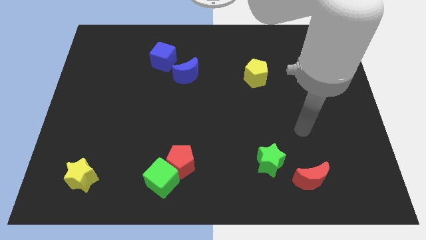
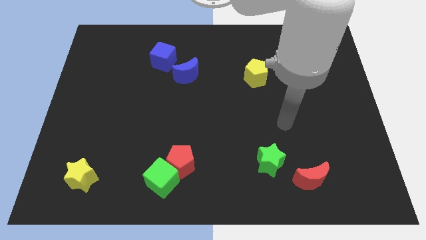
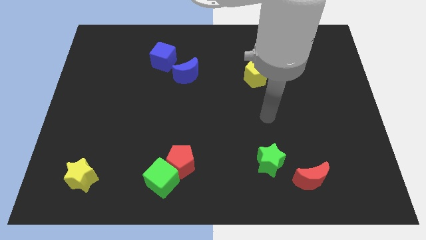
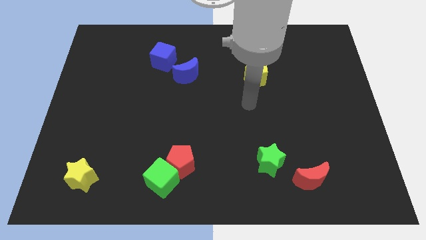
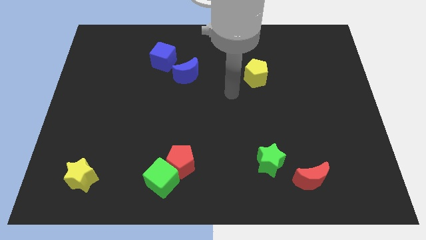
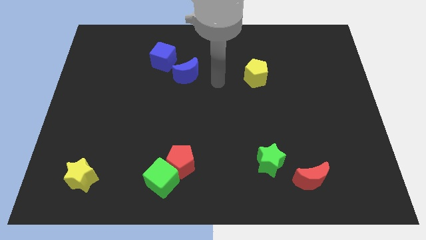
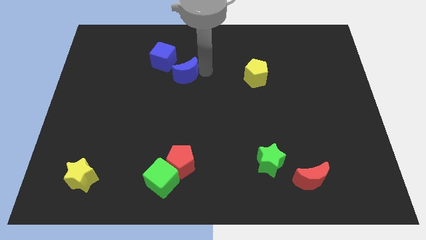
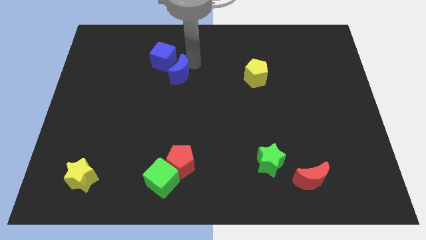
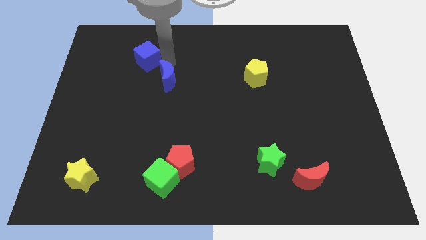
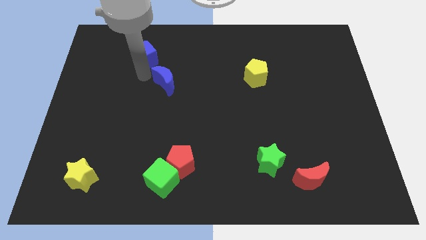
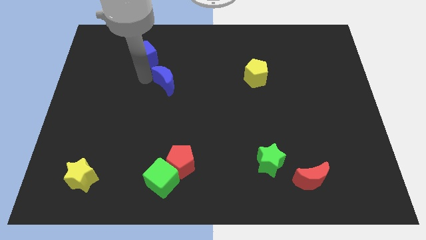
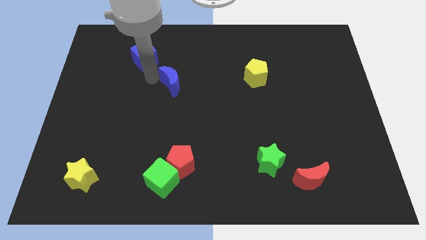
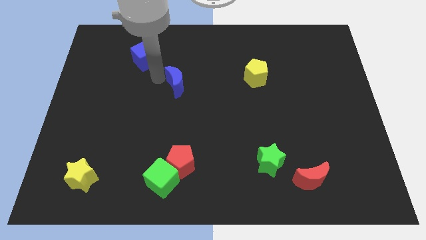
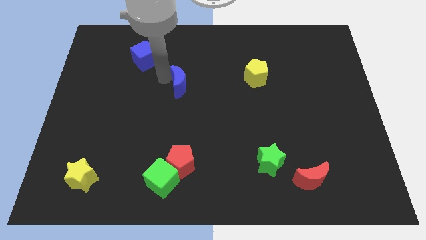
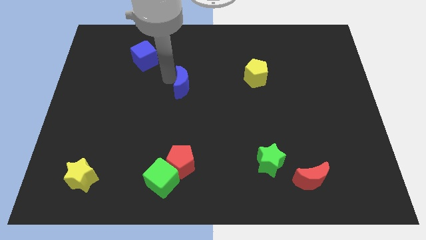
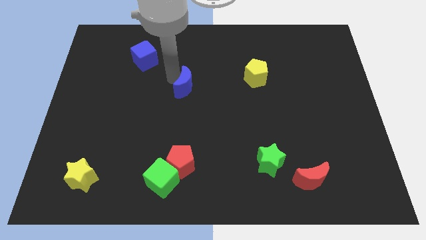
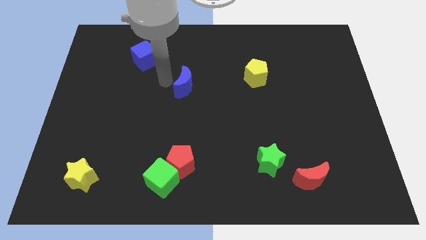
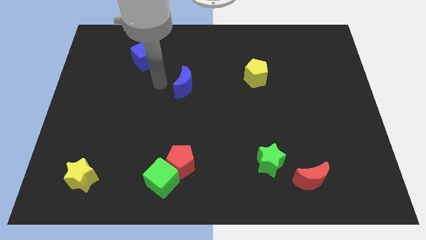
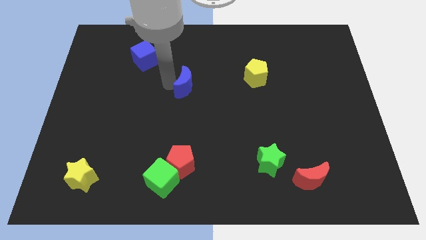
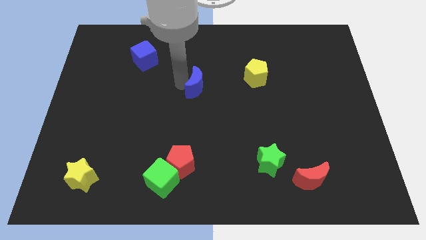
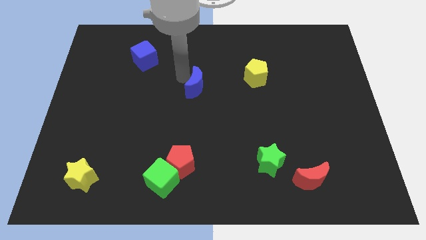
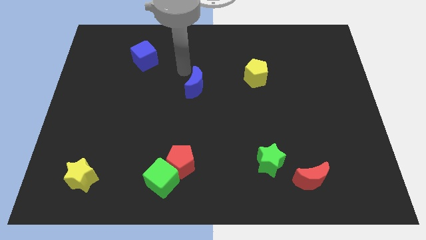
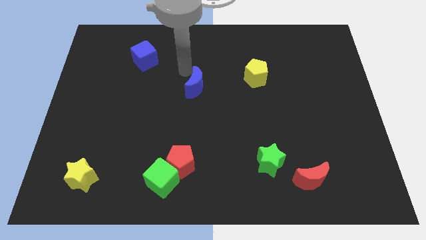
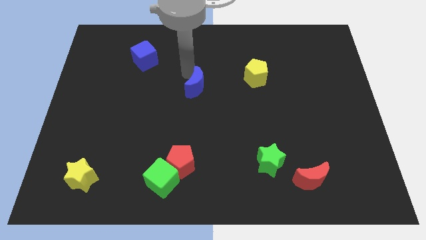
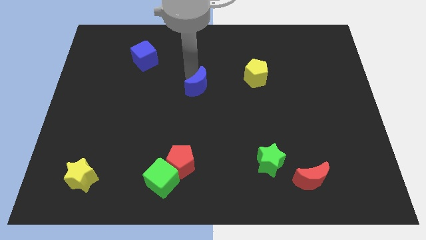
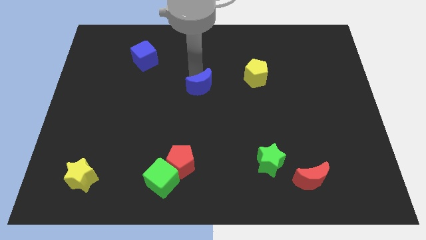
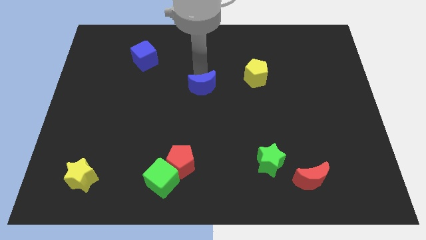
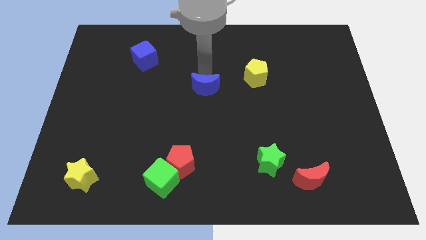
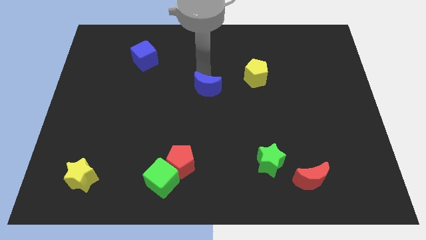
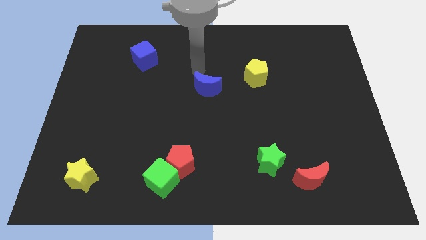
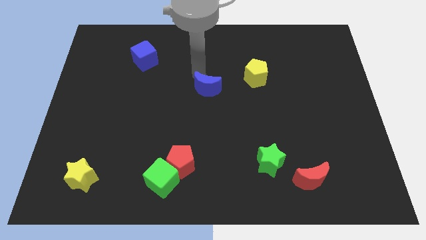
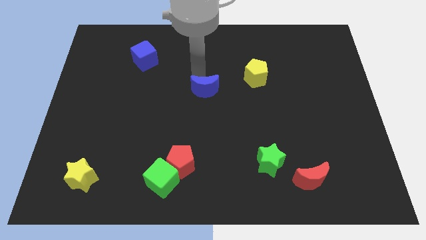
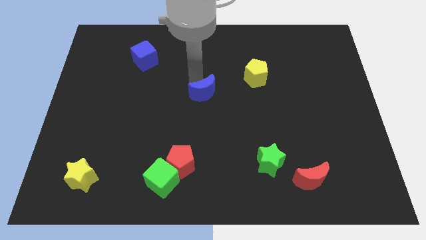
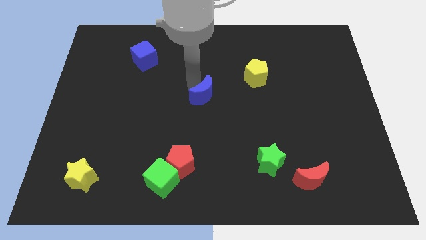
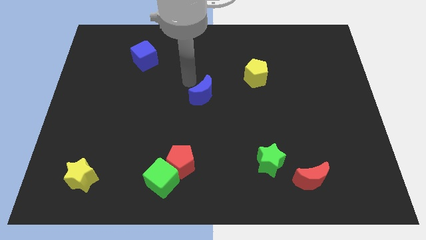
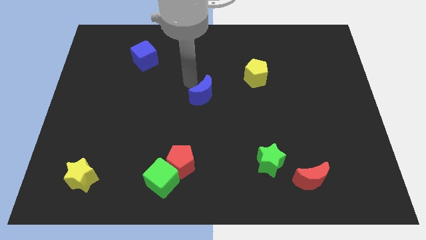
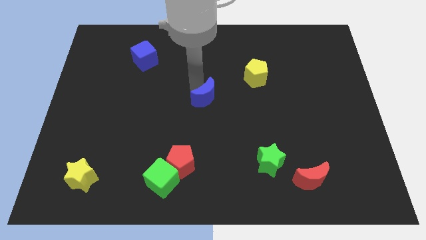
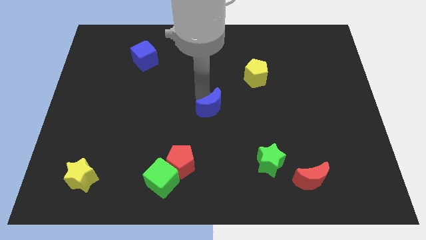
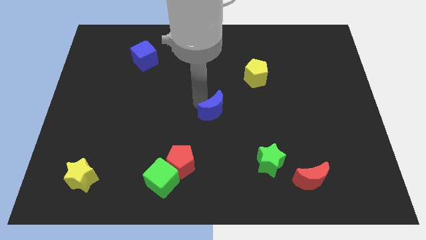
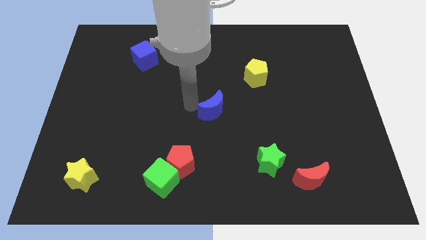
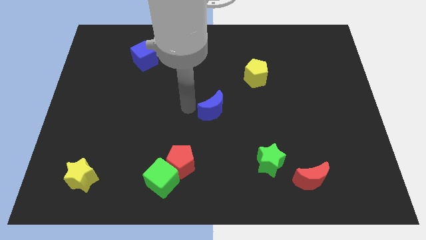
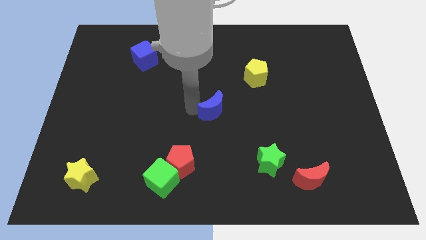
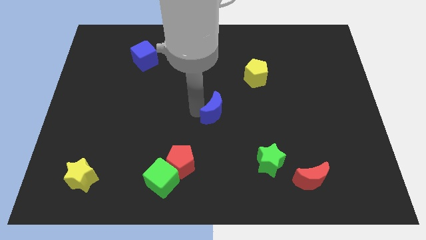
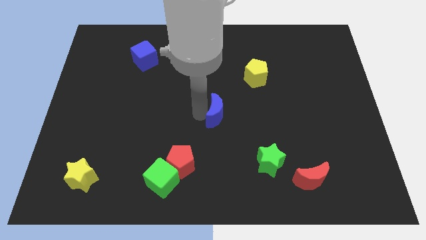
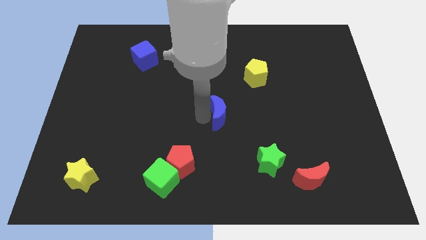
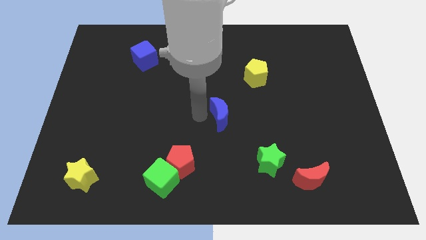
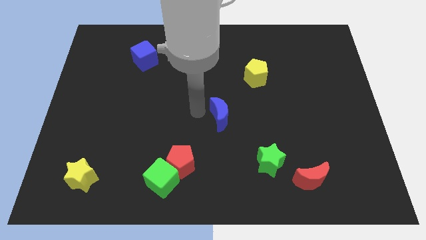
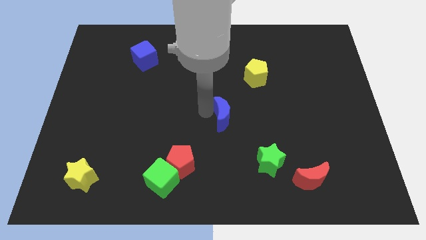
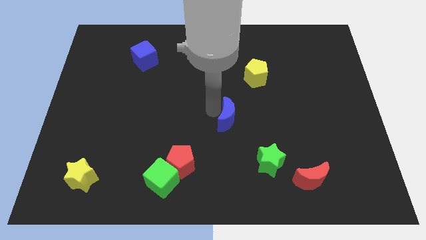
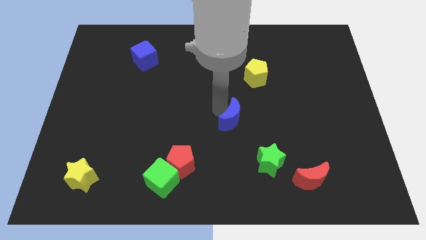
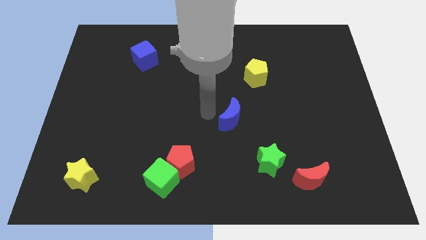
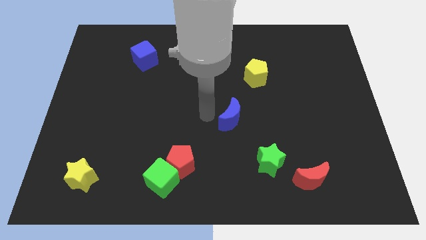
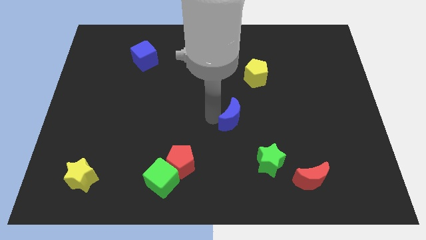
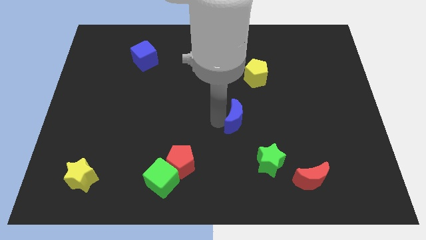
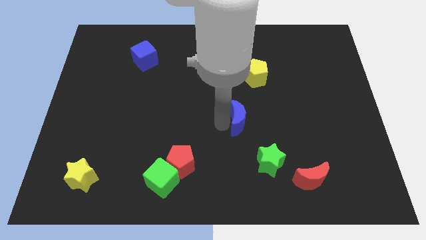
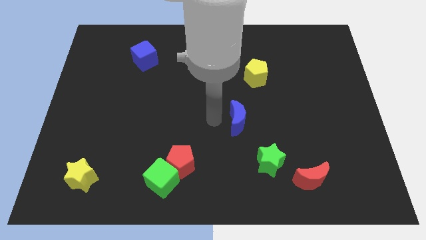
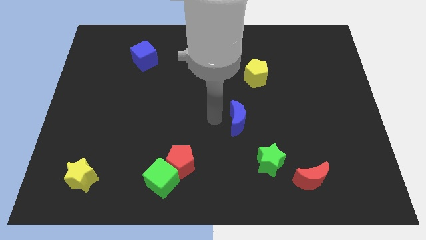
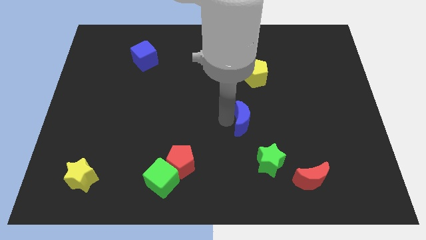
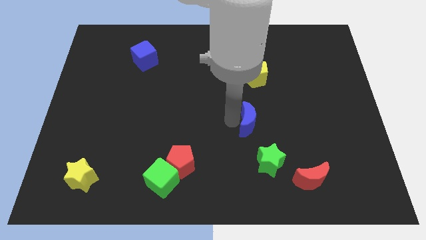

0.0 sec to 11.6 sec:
push the blue moon downwards and to the right

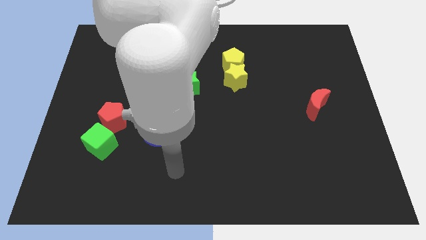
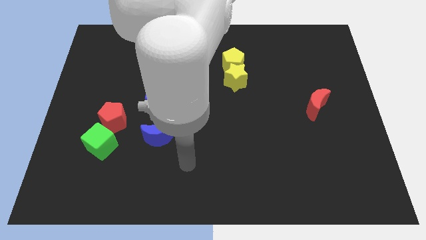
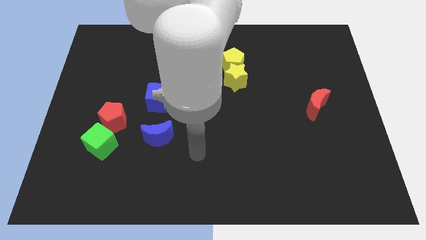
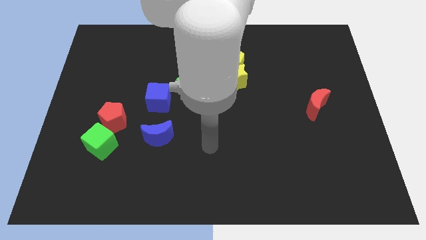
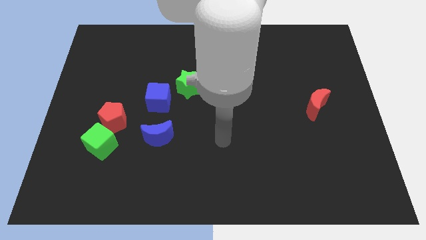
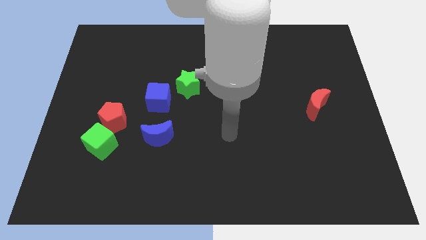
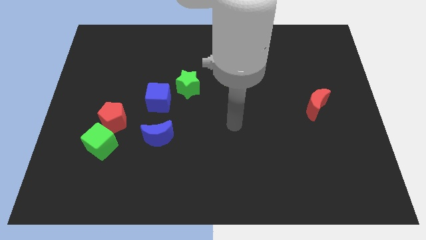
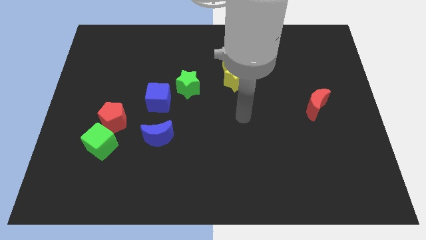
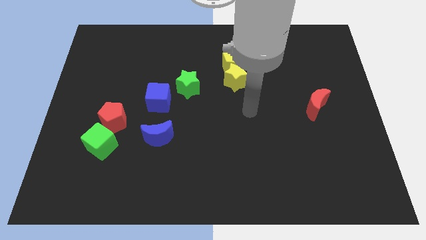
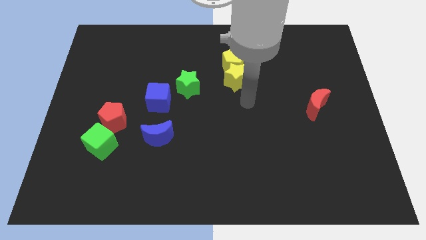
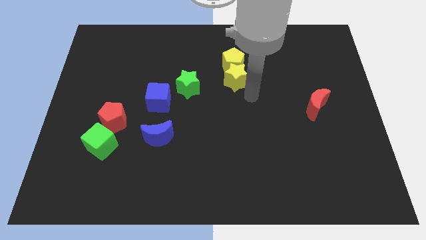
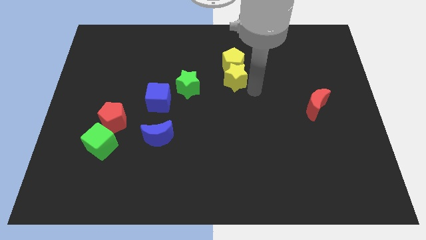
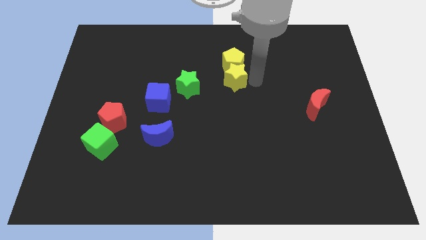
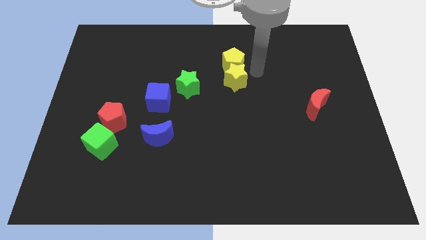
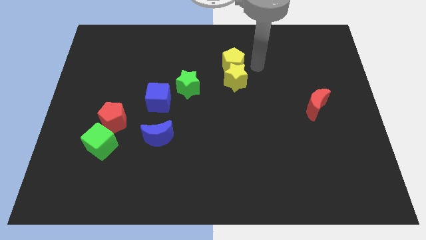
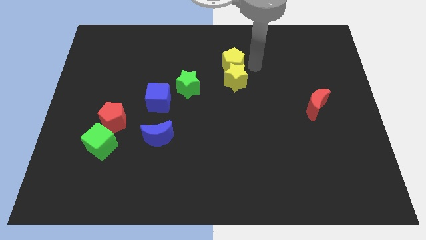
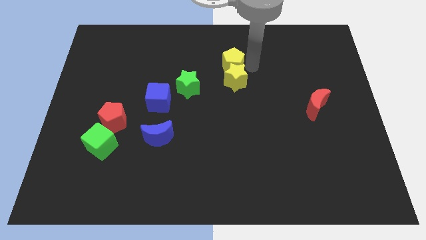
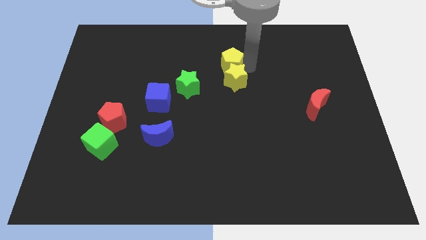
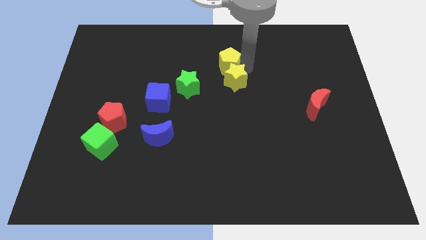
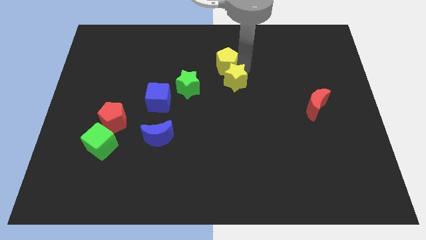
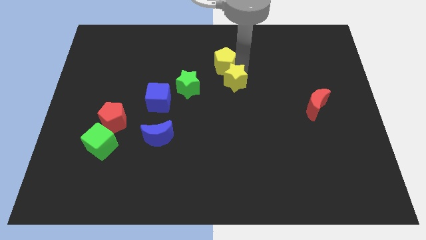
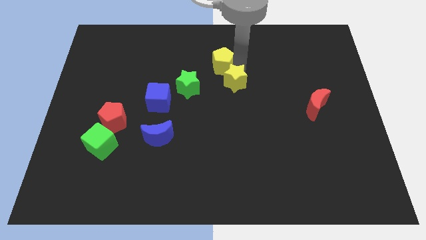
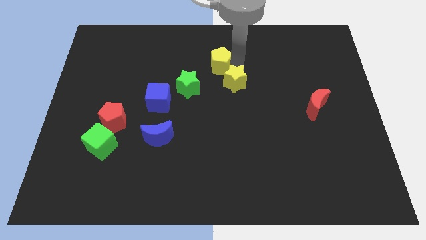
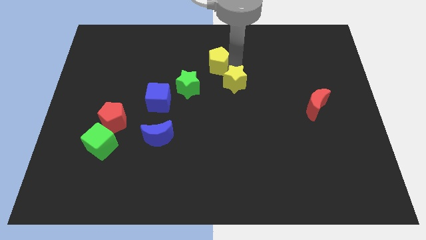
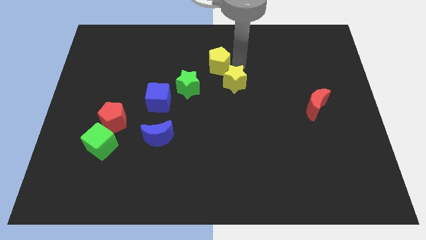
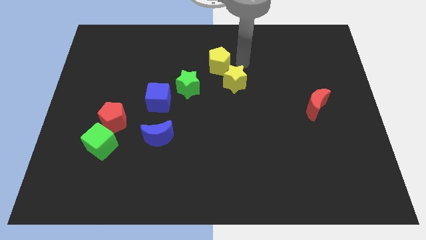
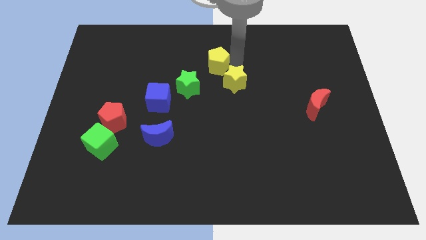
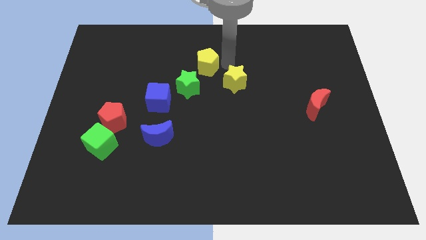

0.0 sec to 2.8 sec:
slightly move the yellow pentagon left
